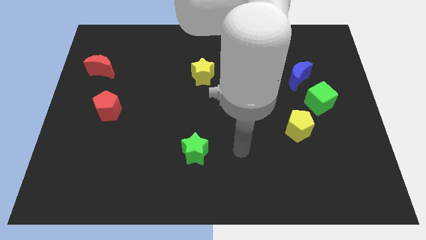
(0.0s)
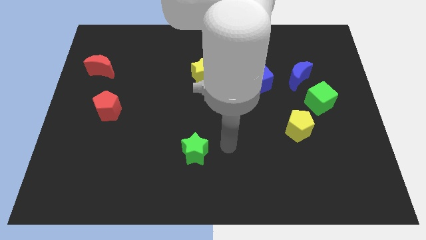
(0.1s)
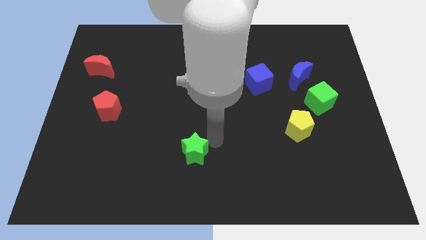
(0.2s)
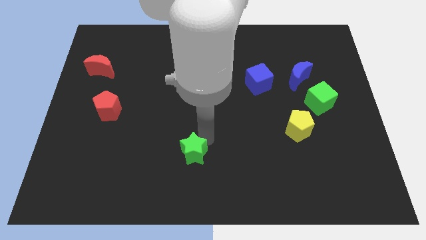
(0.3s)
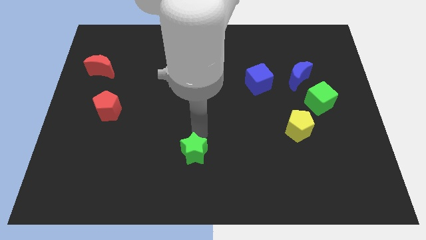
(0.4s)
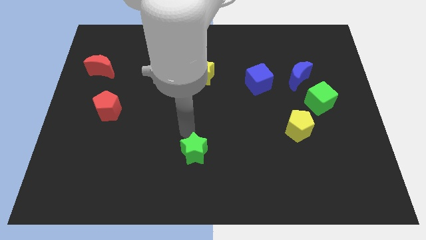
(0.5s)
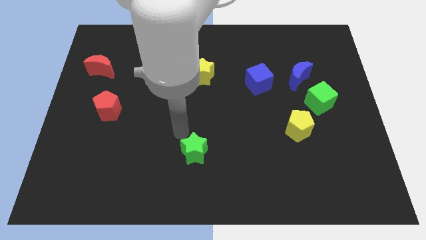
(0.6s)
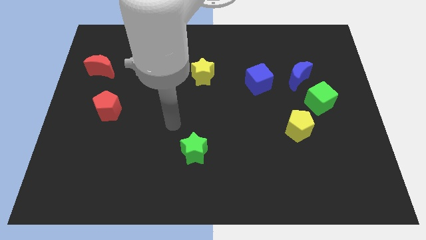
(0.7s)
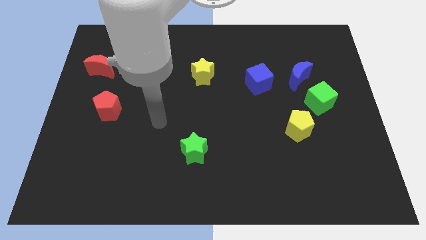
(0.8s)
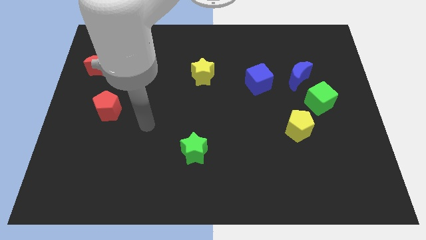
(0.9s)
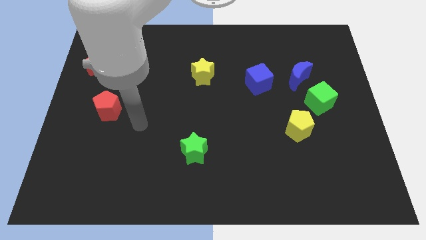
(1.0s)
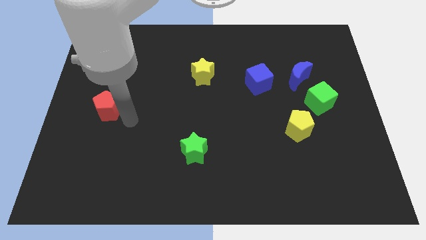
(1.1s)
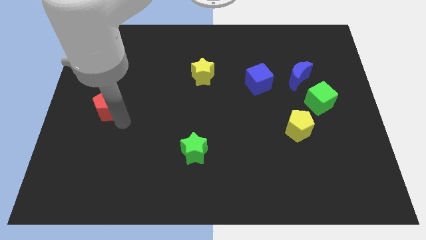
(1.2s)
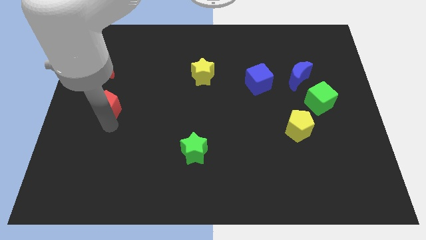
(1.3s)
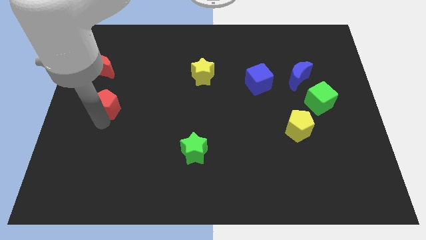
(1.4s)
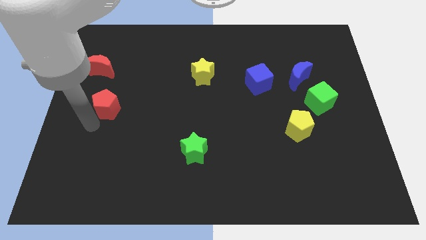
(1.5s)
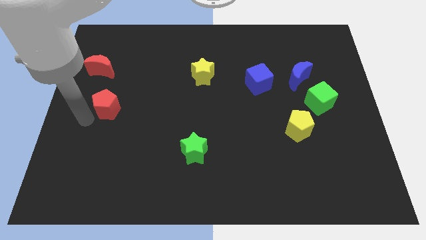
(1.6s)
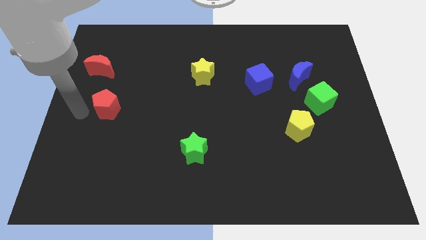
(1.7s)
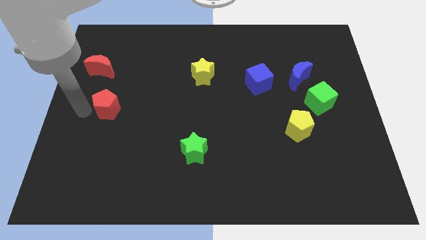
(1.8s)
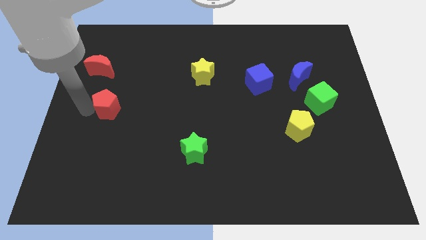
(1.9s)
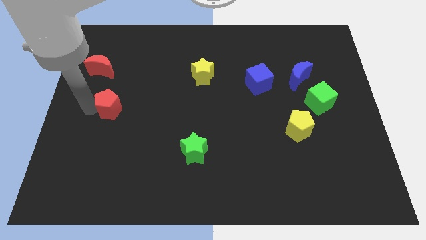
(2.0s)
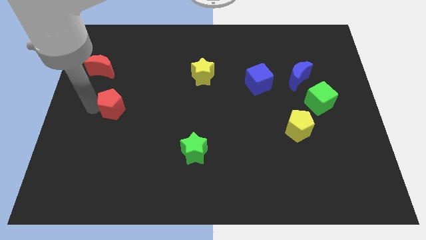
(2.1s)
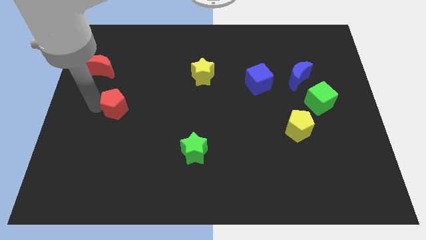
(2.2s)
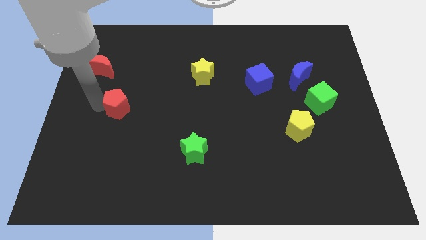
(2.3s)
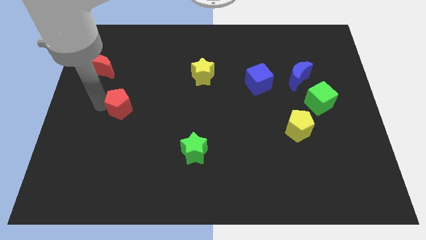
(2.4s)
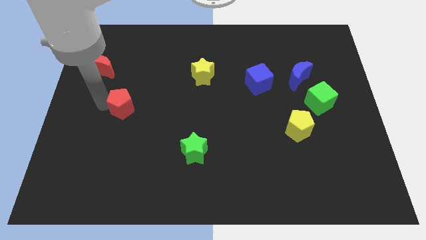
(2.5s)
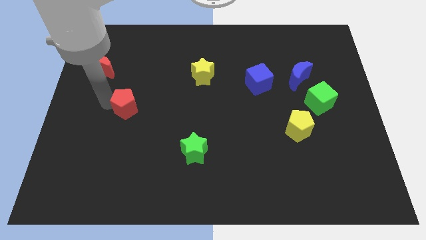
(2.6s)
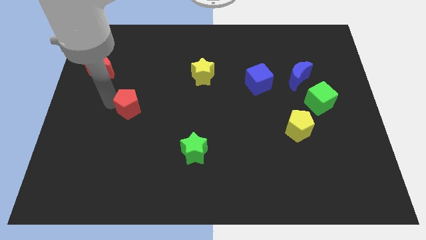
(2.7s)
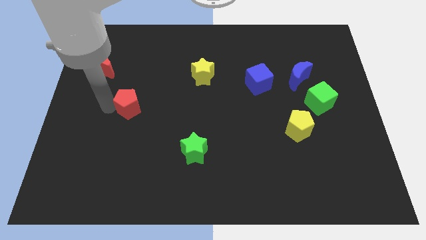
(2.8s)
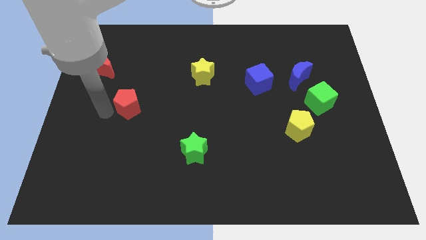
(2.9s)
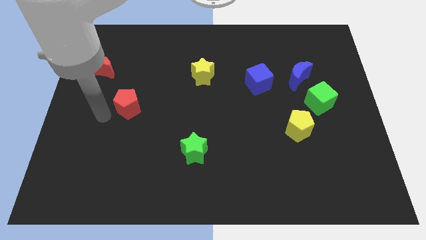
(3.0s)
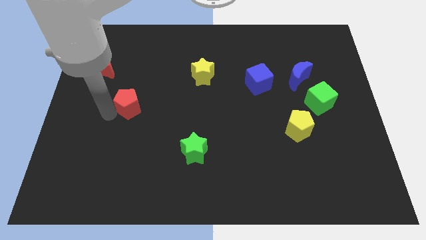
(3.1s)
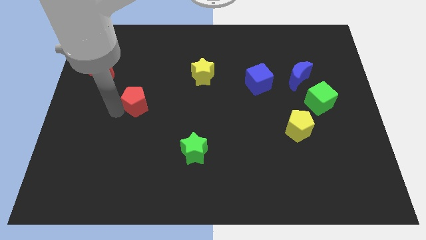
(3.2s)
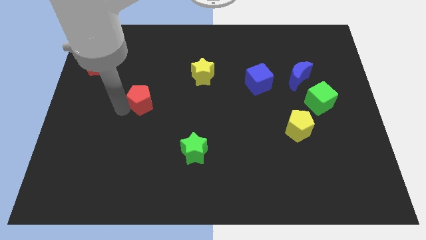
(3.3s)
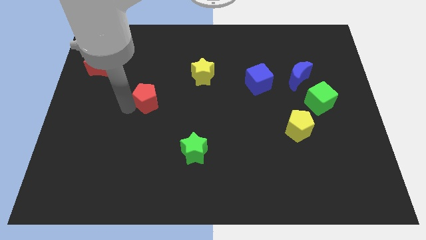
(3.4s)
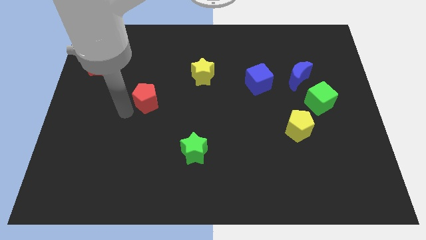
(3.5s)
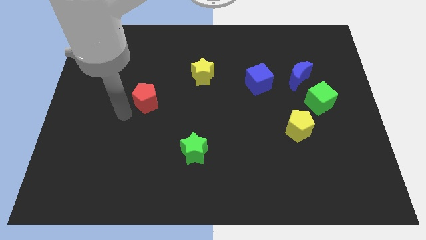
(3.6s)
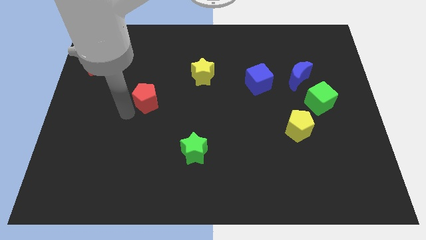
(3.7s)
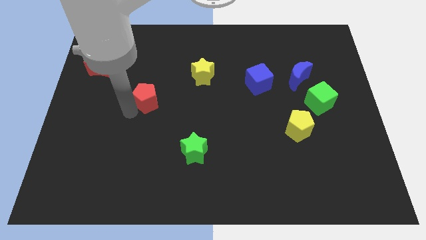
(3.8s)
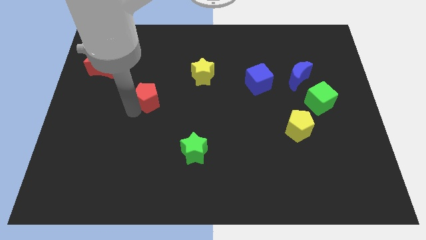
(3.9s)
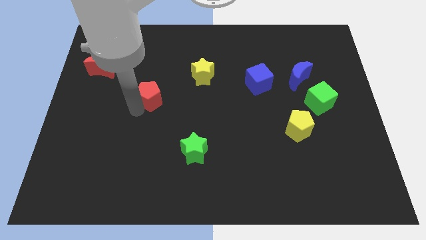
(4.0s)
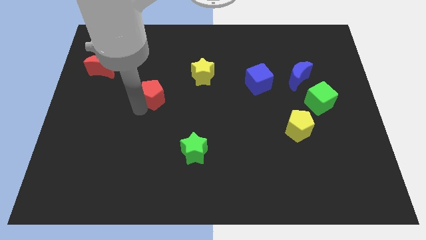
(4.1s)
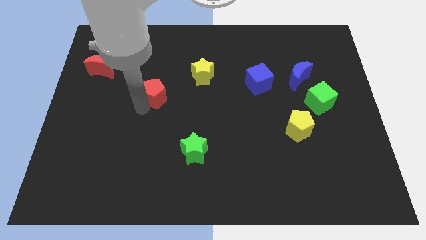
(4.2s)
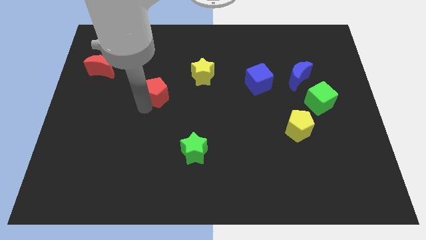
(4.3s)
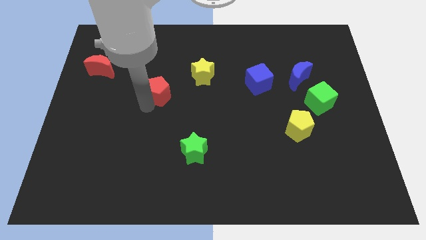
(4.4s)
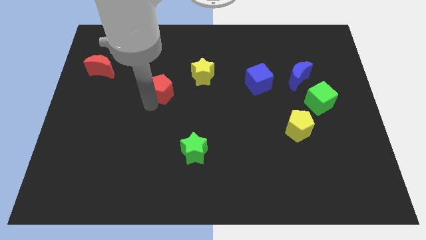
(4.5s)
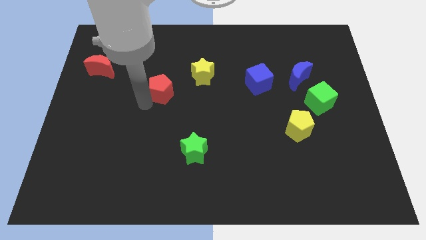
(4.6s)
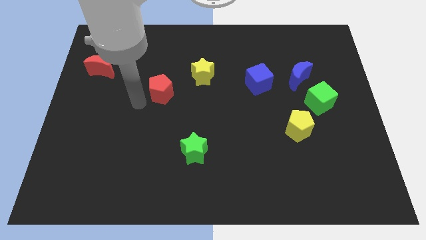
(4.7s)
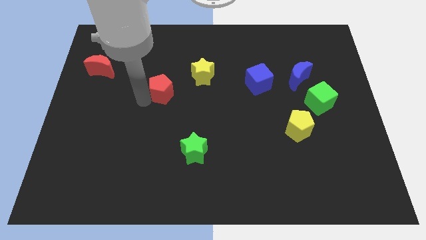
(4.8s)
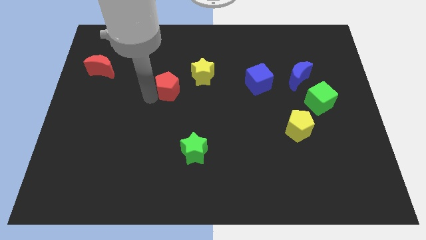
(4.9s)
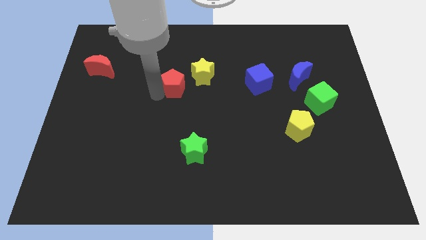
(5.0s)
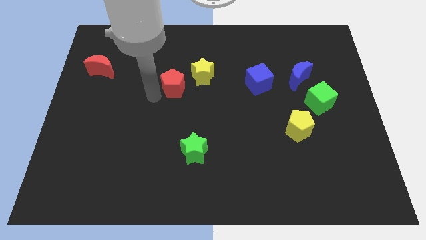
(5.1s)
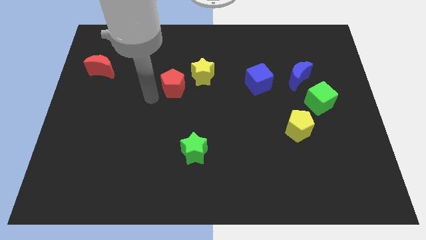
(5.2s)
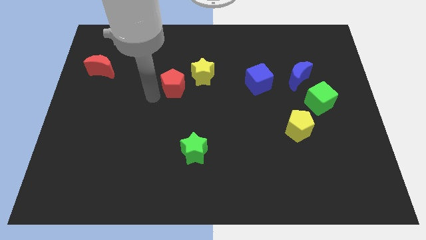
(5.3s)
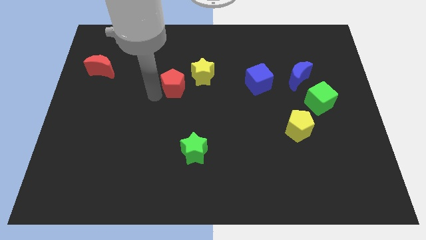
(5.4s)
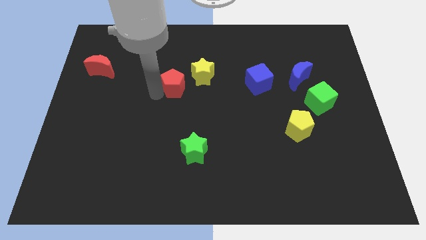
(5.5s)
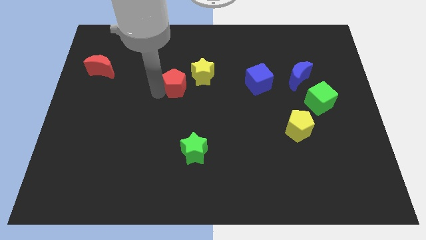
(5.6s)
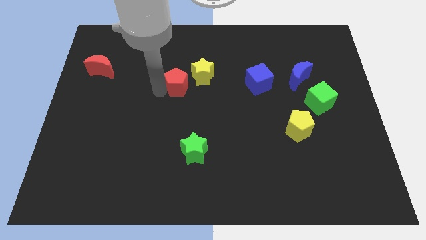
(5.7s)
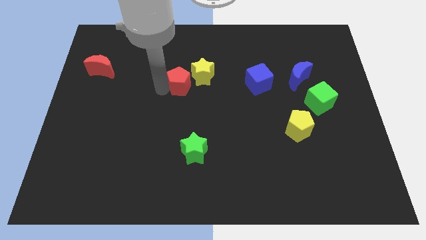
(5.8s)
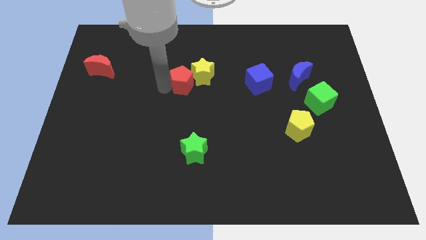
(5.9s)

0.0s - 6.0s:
move the red pentagon towards the yellow star

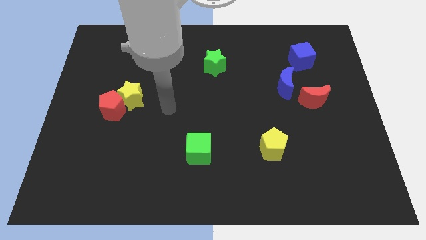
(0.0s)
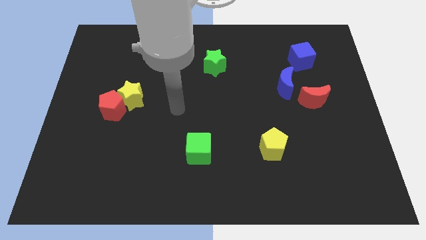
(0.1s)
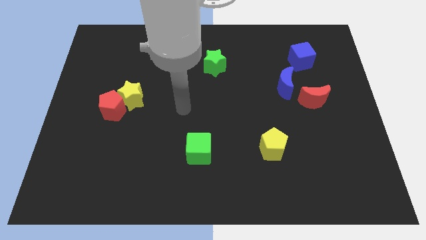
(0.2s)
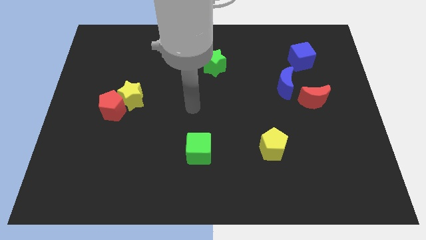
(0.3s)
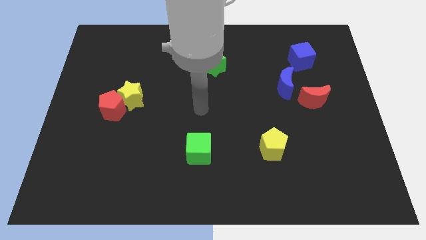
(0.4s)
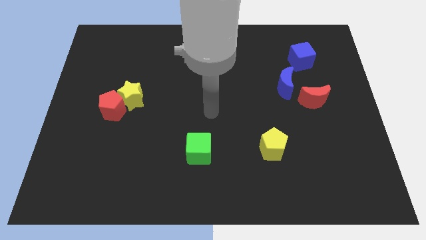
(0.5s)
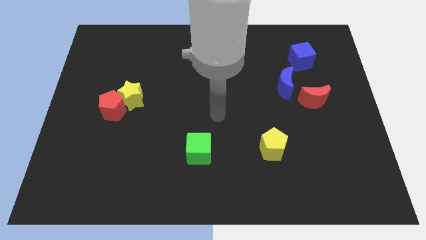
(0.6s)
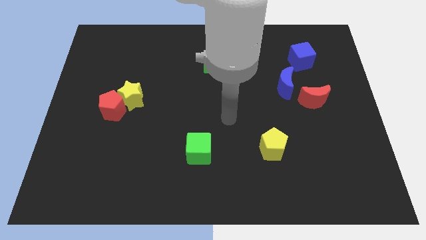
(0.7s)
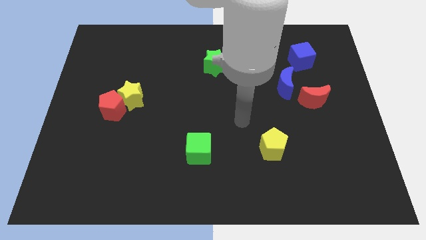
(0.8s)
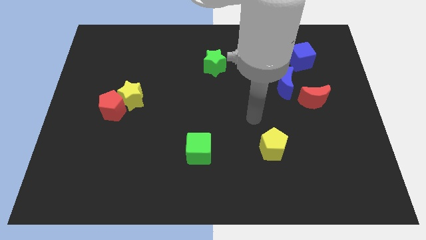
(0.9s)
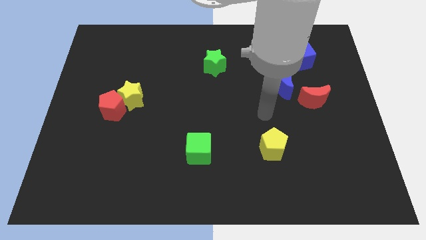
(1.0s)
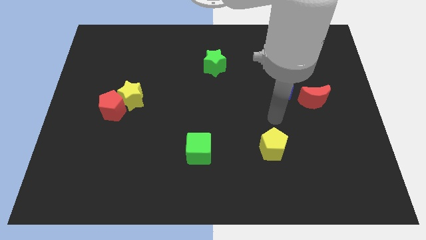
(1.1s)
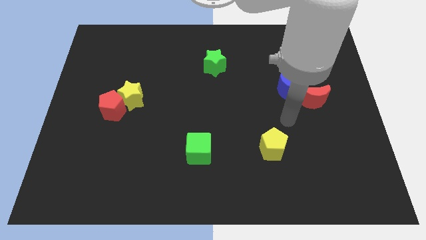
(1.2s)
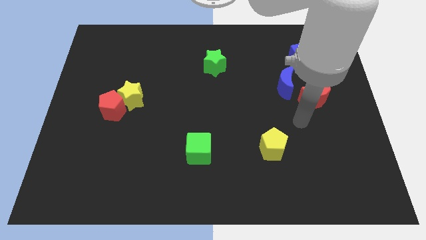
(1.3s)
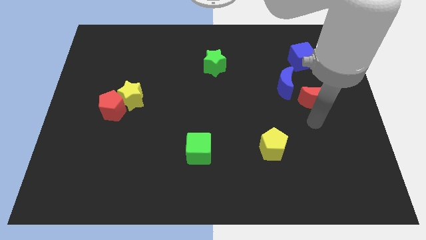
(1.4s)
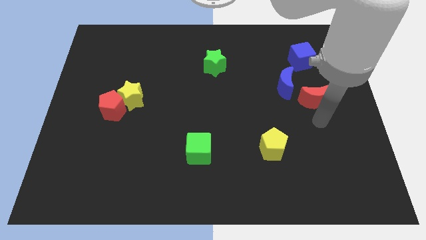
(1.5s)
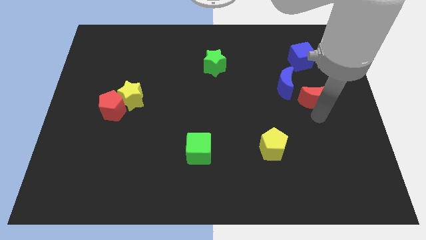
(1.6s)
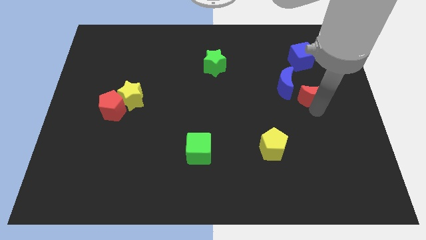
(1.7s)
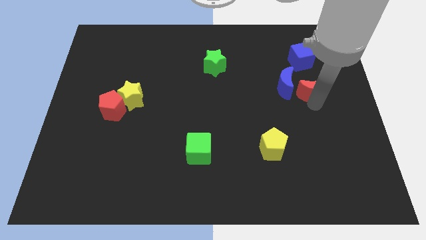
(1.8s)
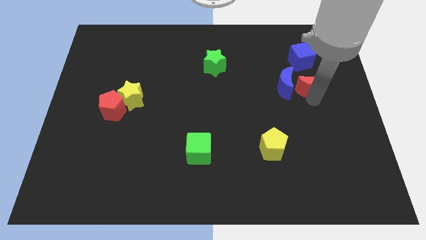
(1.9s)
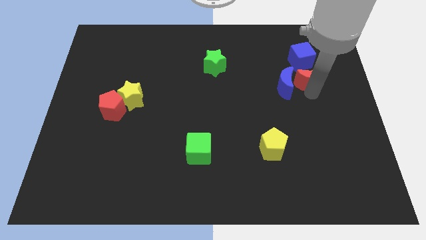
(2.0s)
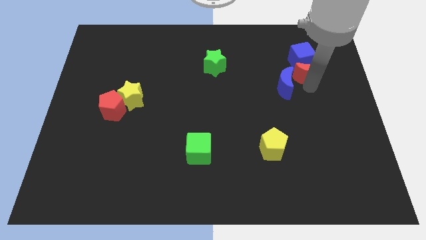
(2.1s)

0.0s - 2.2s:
slide the red moon close to the blue cube
